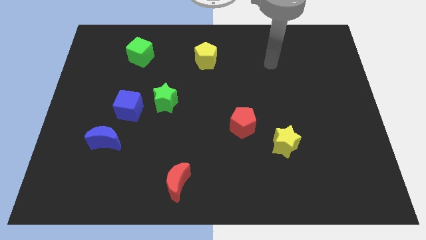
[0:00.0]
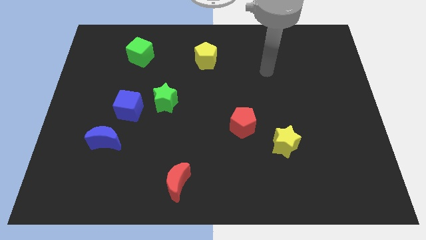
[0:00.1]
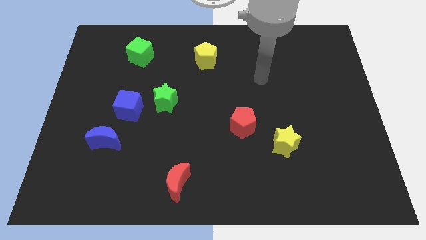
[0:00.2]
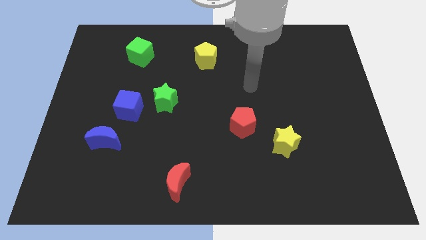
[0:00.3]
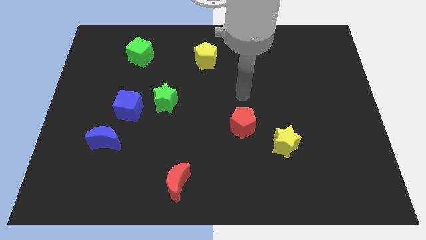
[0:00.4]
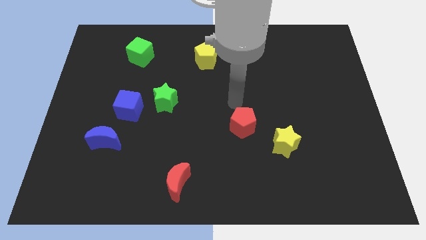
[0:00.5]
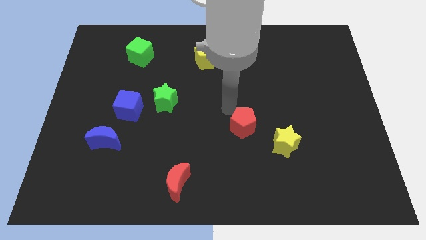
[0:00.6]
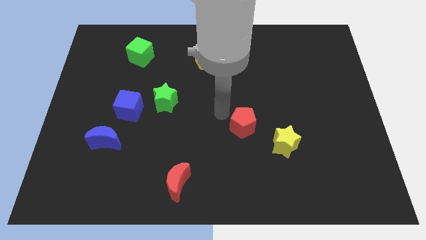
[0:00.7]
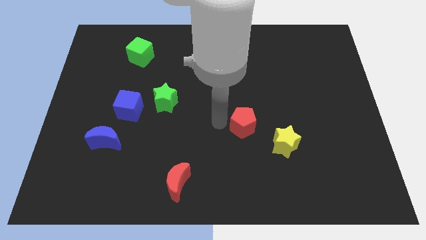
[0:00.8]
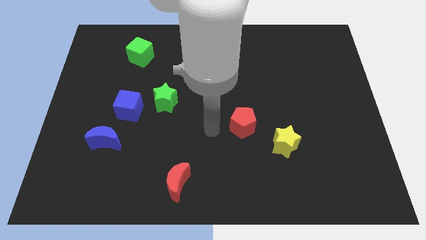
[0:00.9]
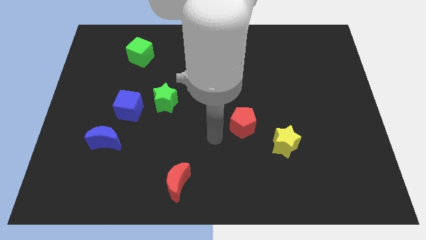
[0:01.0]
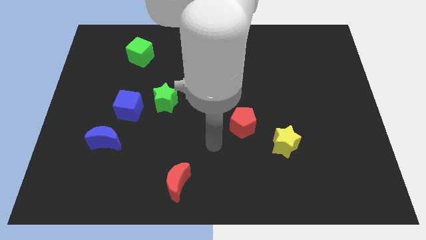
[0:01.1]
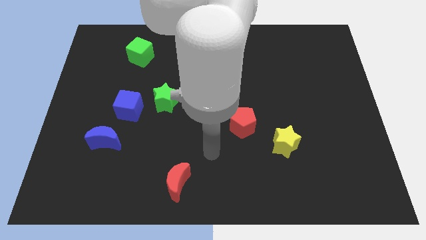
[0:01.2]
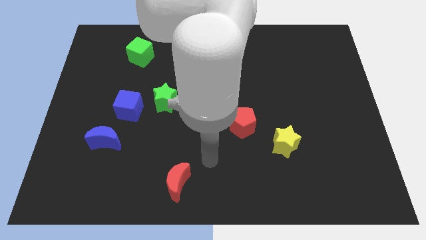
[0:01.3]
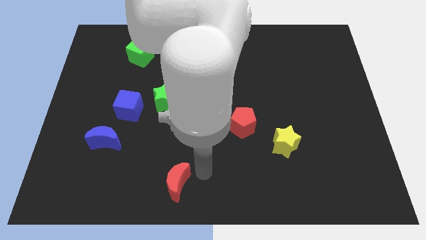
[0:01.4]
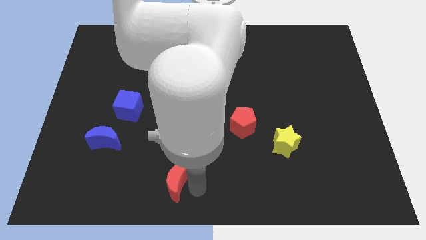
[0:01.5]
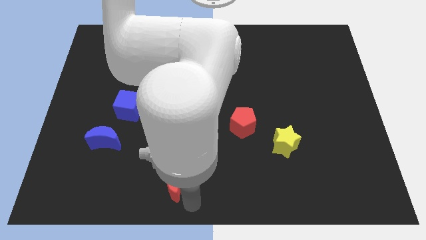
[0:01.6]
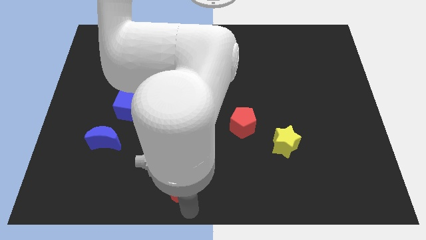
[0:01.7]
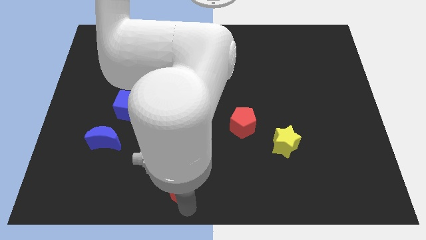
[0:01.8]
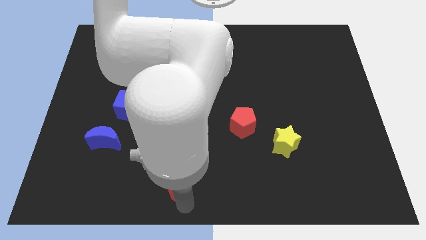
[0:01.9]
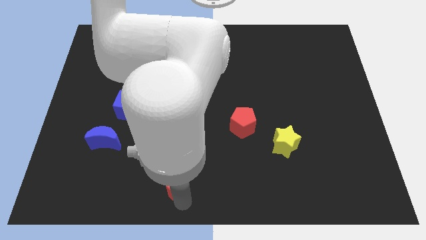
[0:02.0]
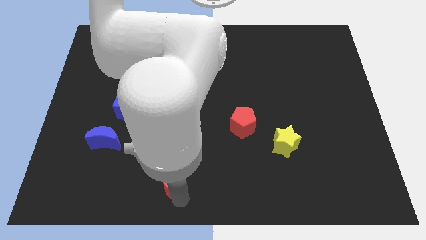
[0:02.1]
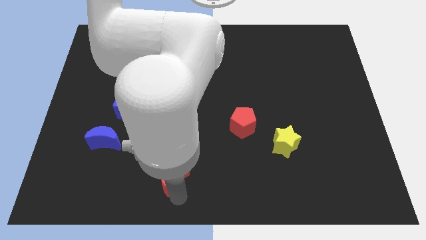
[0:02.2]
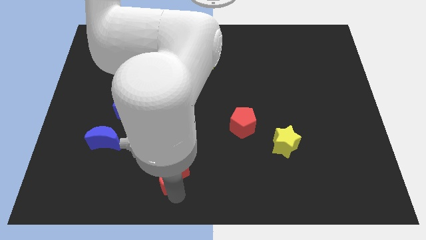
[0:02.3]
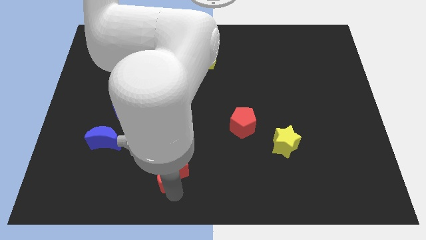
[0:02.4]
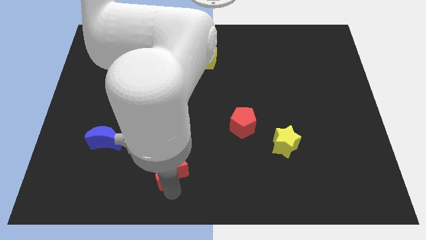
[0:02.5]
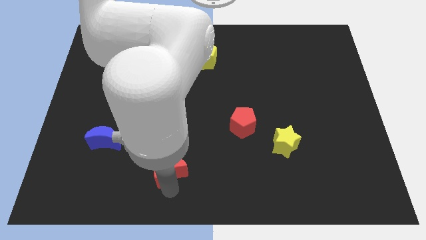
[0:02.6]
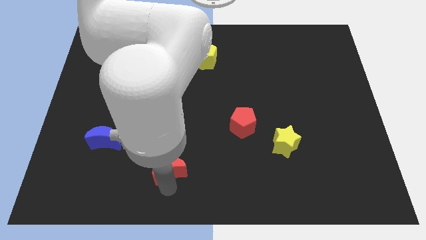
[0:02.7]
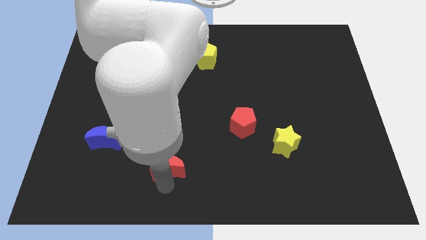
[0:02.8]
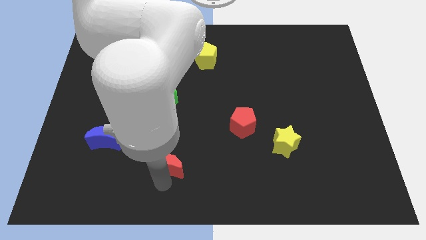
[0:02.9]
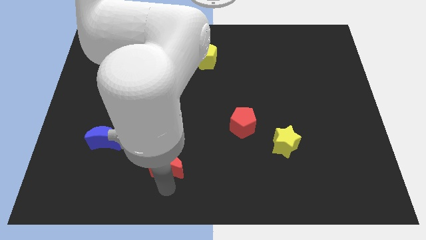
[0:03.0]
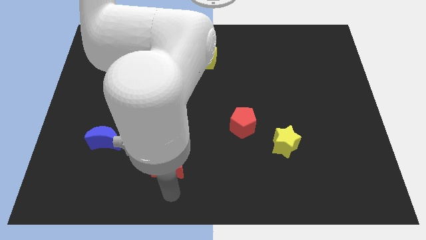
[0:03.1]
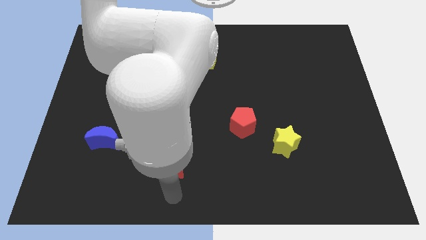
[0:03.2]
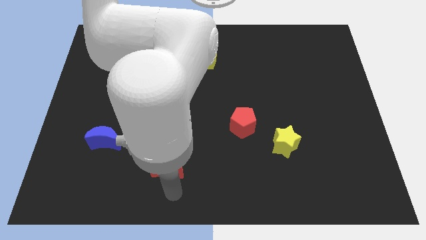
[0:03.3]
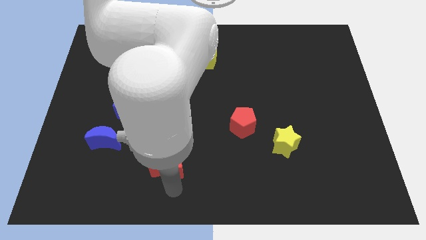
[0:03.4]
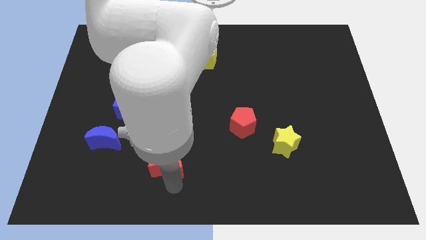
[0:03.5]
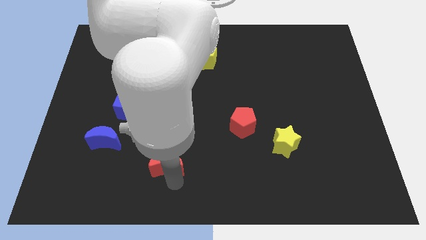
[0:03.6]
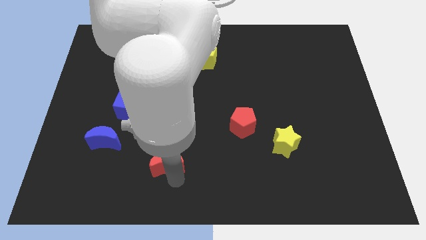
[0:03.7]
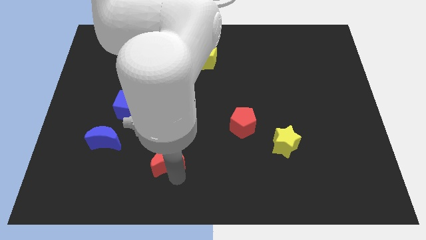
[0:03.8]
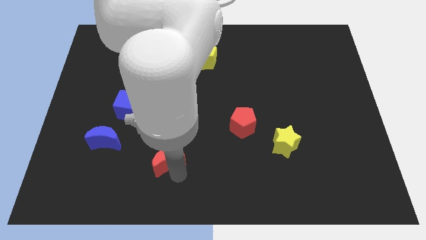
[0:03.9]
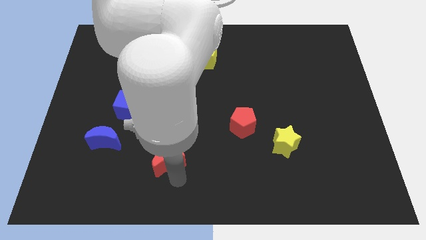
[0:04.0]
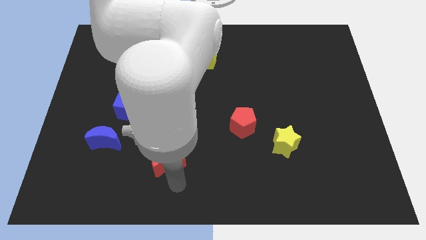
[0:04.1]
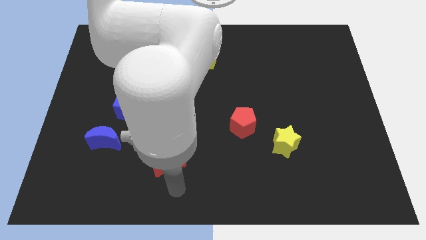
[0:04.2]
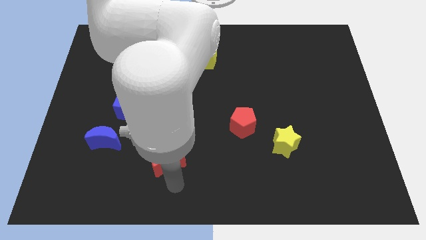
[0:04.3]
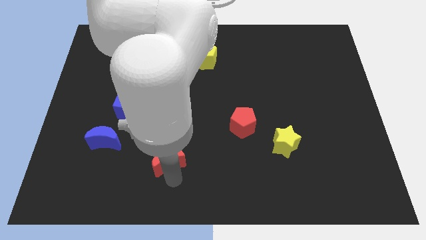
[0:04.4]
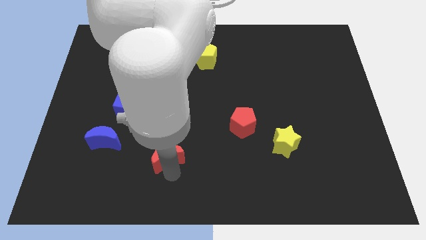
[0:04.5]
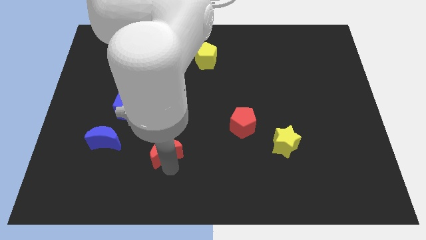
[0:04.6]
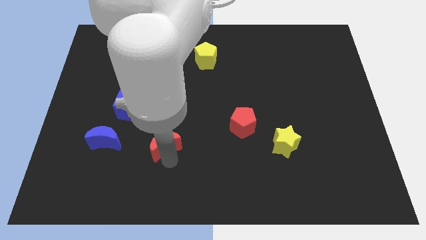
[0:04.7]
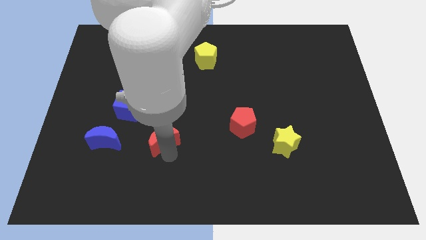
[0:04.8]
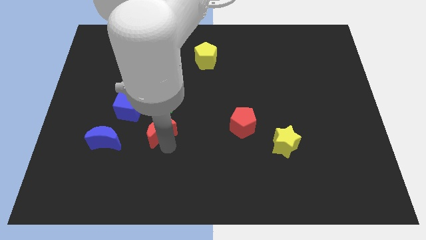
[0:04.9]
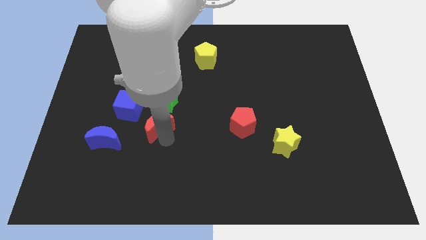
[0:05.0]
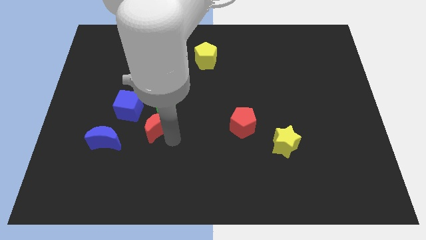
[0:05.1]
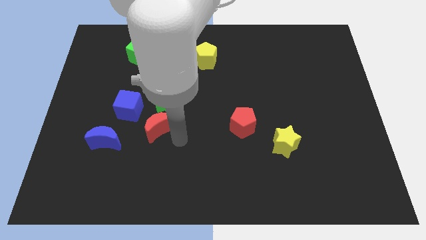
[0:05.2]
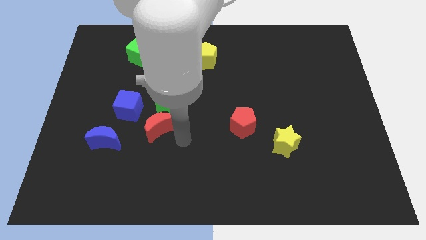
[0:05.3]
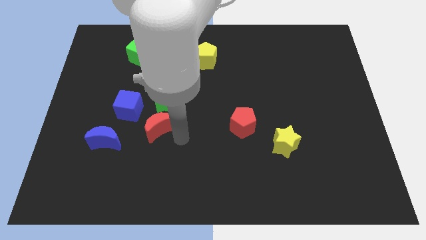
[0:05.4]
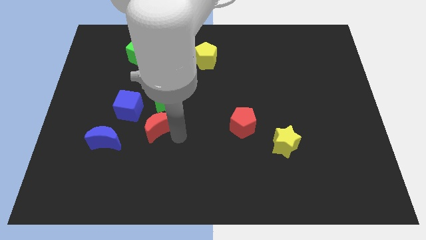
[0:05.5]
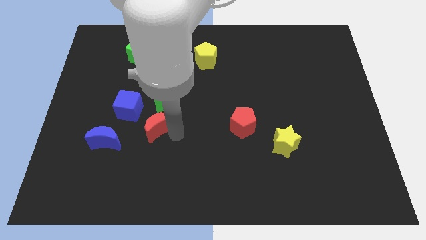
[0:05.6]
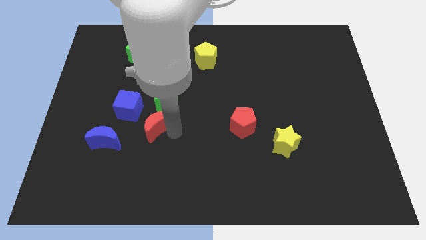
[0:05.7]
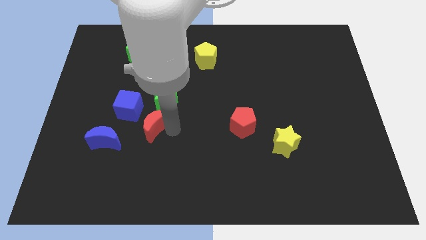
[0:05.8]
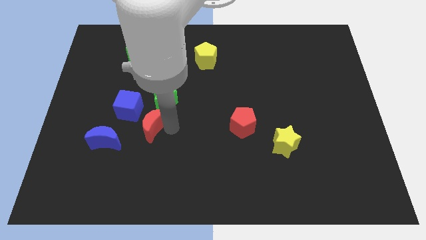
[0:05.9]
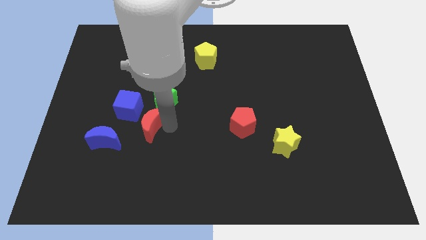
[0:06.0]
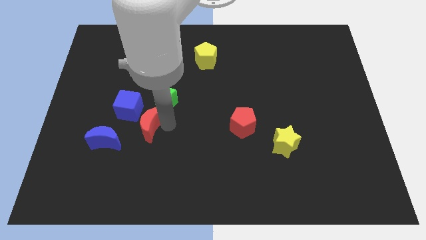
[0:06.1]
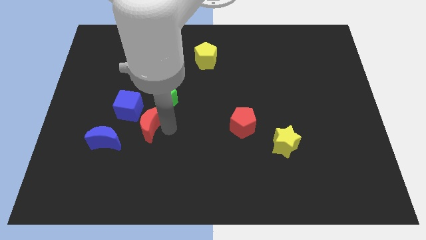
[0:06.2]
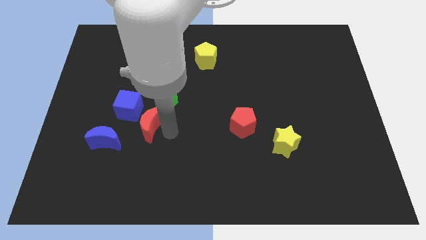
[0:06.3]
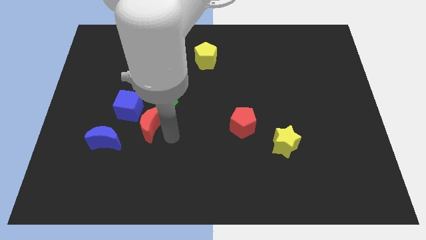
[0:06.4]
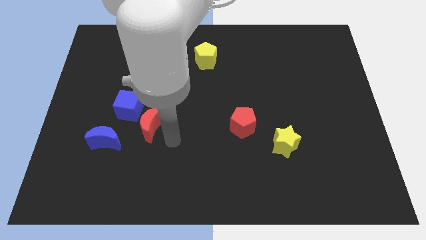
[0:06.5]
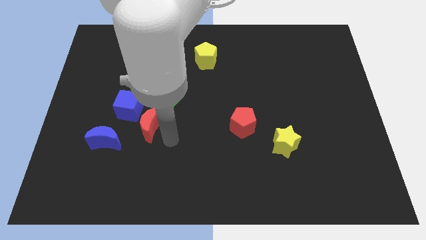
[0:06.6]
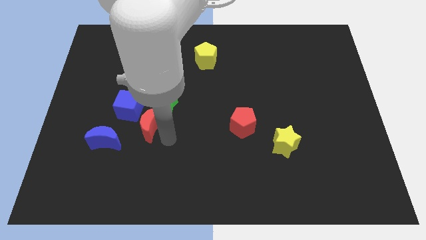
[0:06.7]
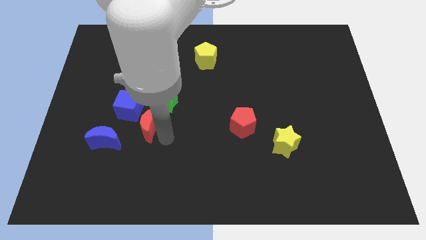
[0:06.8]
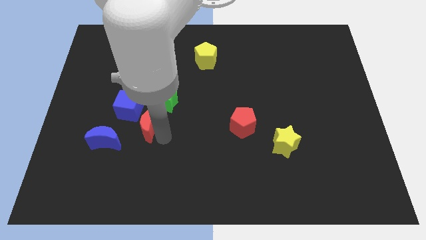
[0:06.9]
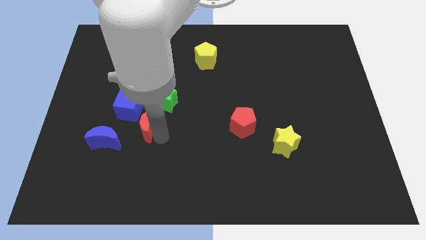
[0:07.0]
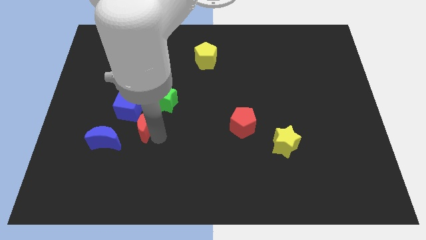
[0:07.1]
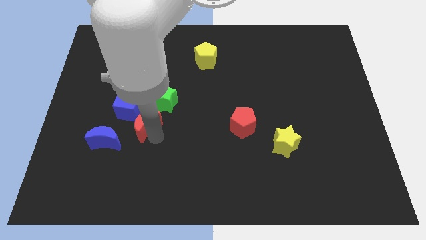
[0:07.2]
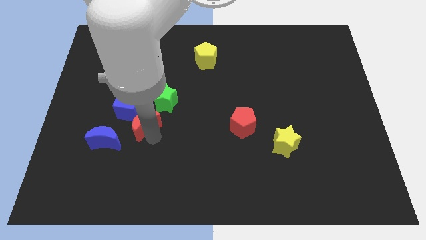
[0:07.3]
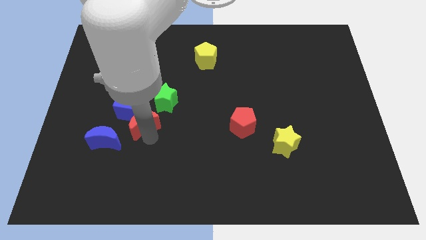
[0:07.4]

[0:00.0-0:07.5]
move the red moon close to the blue cube
